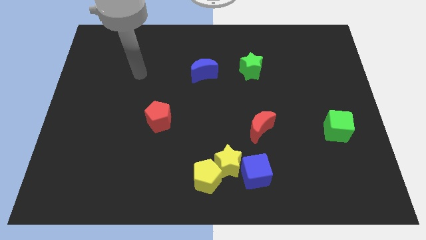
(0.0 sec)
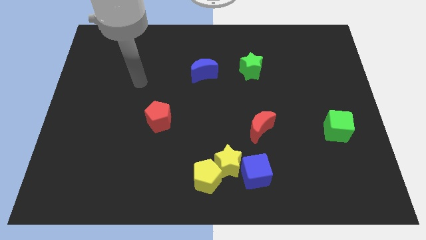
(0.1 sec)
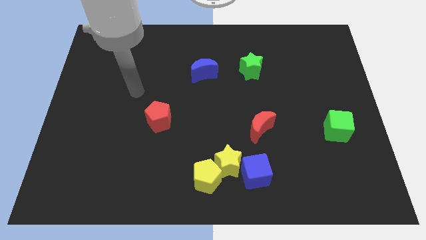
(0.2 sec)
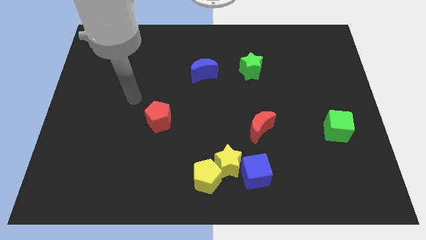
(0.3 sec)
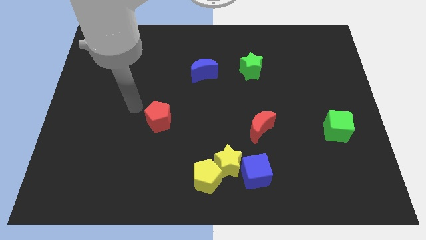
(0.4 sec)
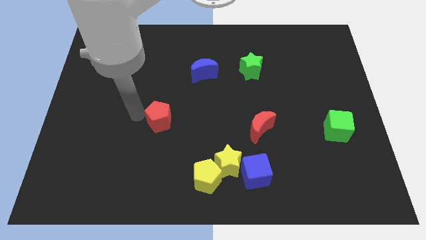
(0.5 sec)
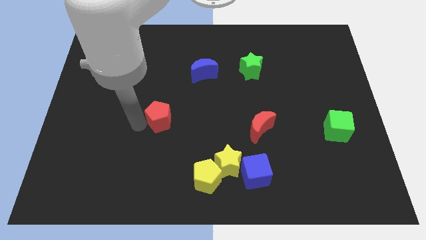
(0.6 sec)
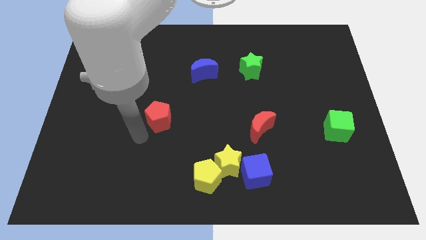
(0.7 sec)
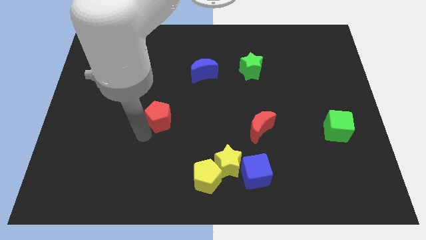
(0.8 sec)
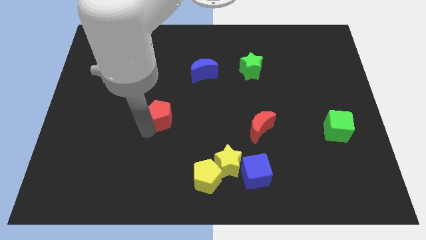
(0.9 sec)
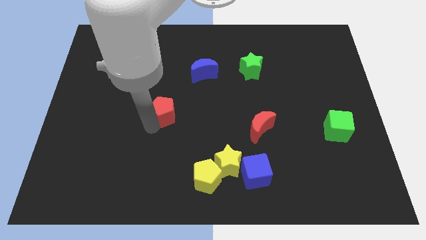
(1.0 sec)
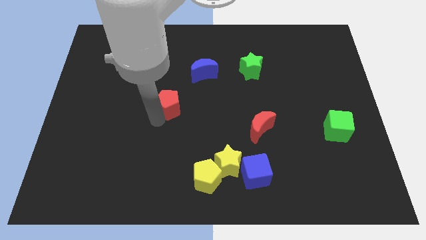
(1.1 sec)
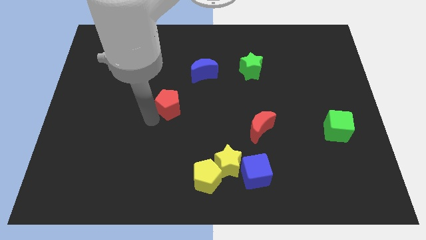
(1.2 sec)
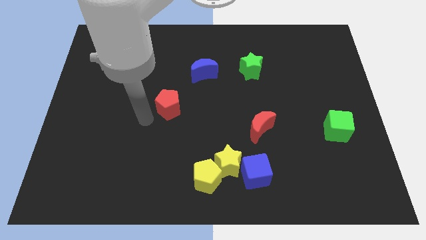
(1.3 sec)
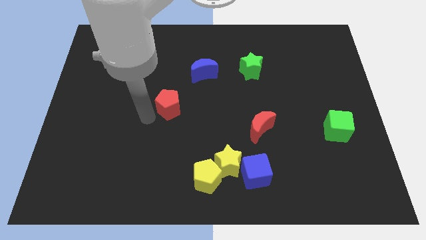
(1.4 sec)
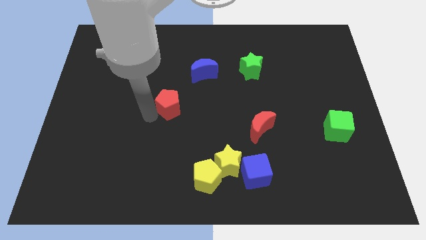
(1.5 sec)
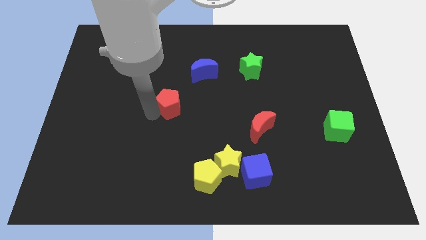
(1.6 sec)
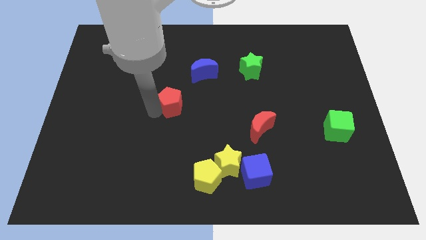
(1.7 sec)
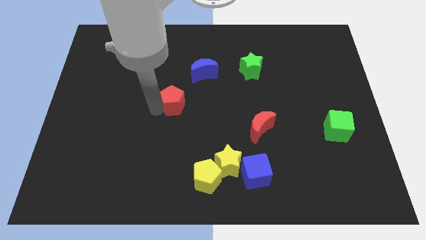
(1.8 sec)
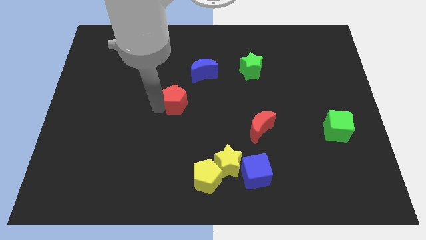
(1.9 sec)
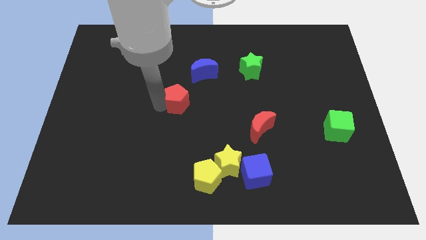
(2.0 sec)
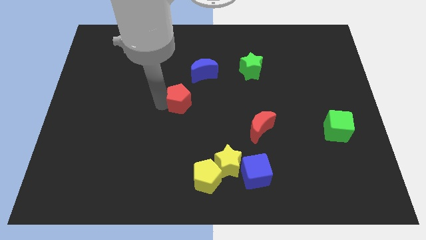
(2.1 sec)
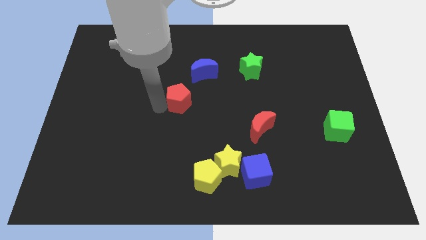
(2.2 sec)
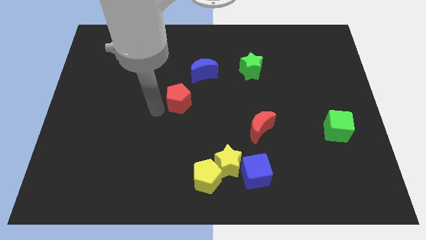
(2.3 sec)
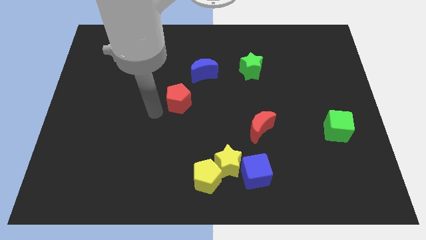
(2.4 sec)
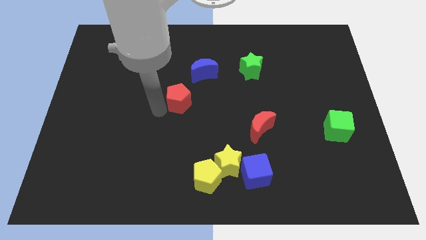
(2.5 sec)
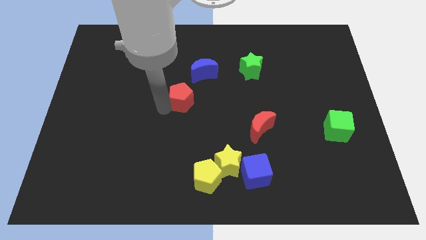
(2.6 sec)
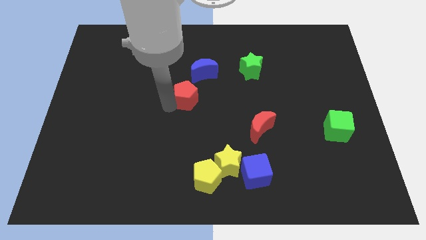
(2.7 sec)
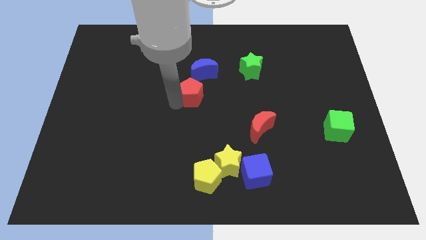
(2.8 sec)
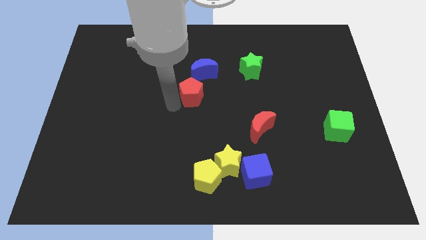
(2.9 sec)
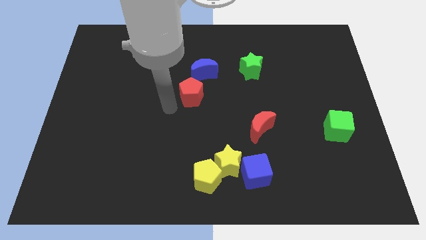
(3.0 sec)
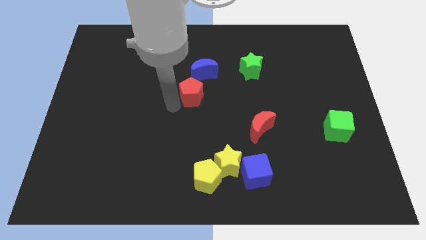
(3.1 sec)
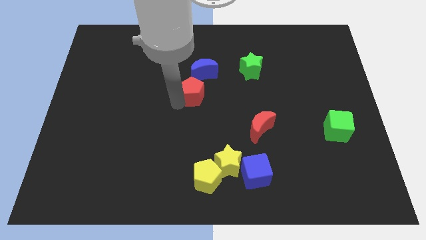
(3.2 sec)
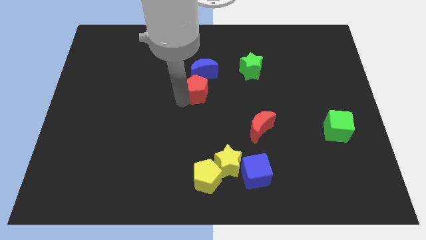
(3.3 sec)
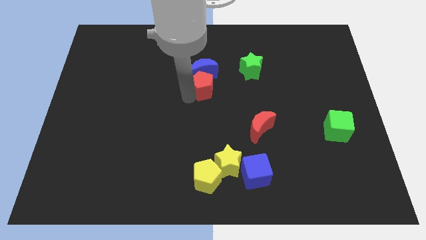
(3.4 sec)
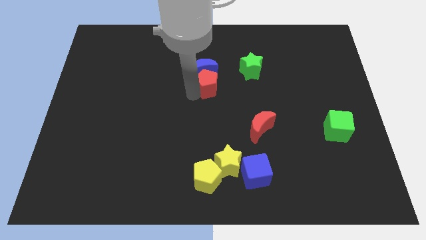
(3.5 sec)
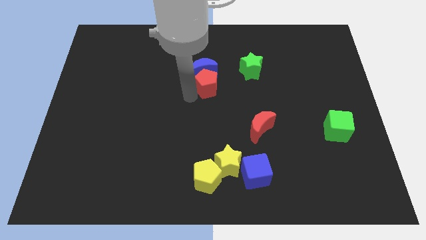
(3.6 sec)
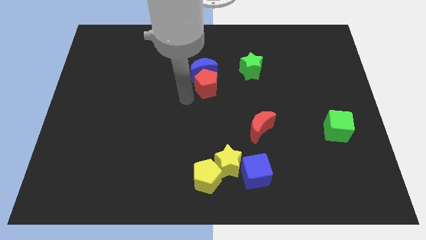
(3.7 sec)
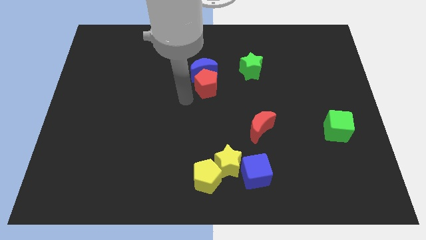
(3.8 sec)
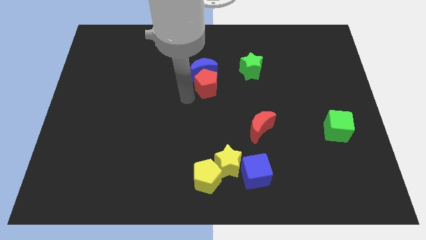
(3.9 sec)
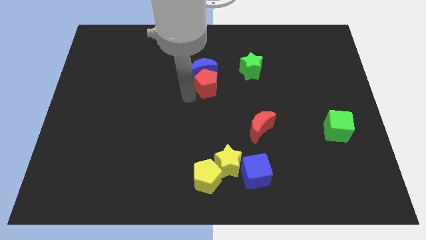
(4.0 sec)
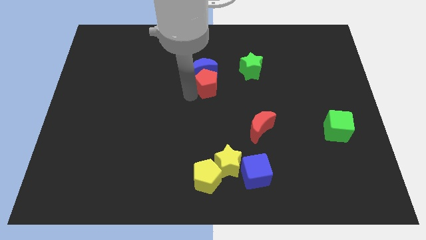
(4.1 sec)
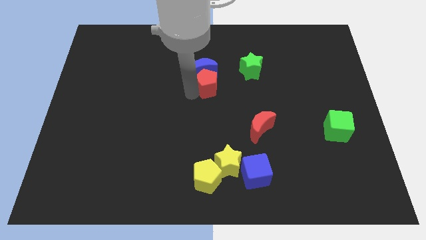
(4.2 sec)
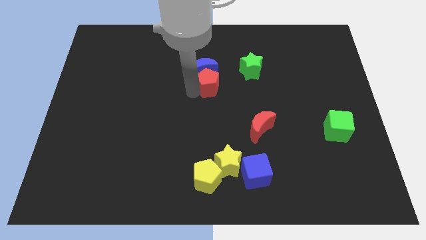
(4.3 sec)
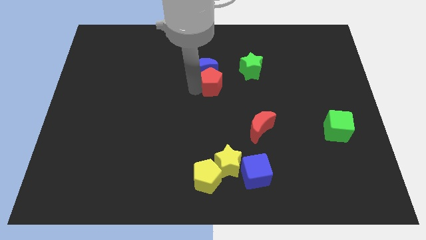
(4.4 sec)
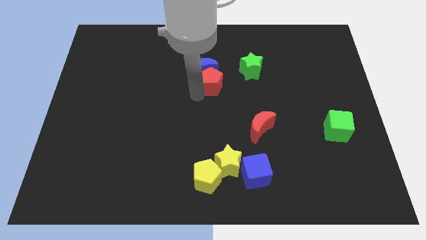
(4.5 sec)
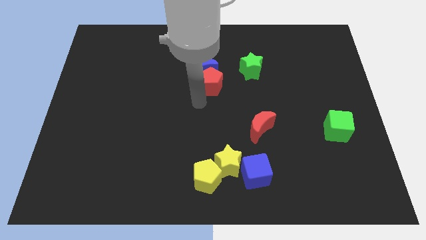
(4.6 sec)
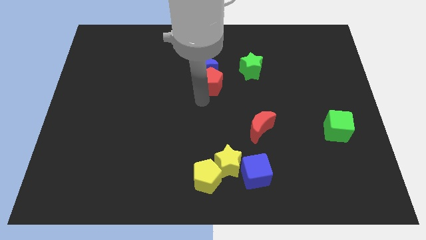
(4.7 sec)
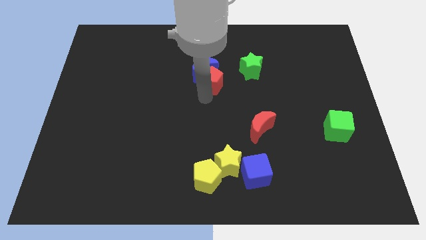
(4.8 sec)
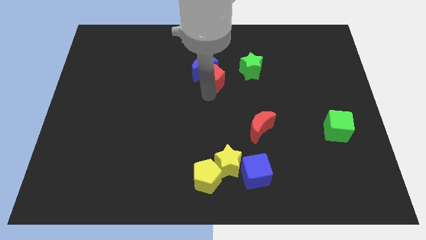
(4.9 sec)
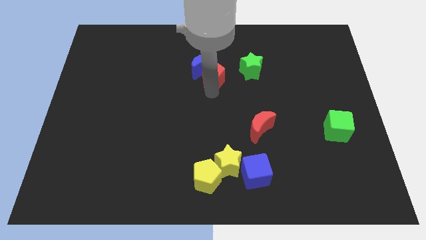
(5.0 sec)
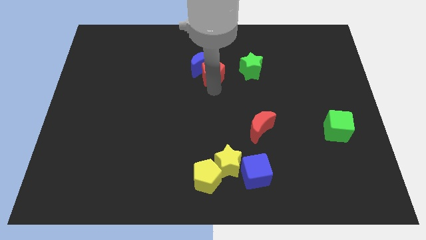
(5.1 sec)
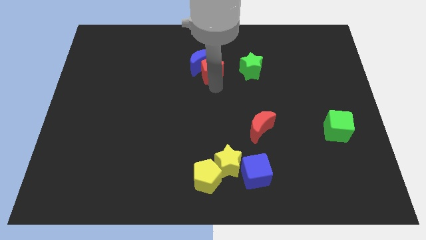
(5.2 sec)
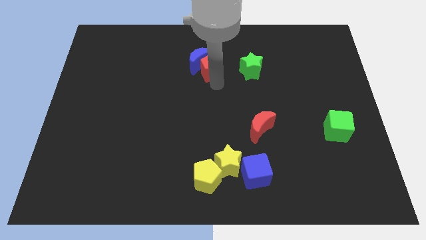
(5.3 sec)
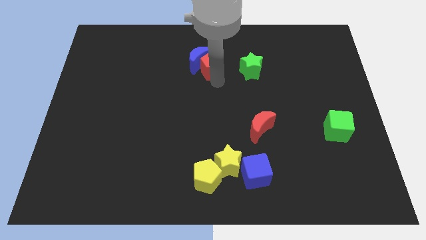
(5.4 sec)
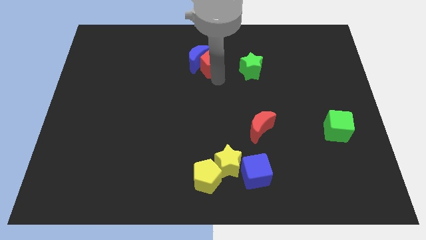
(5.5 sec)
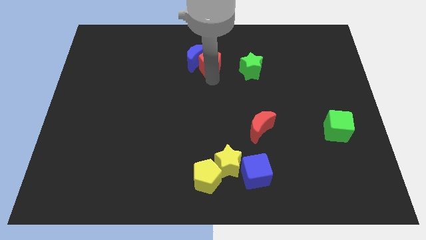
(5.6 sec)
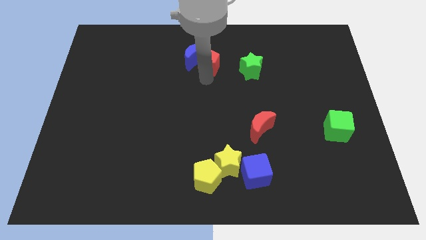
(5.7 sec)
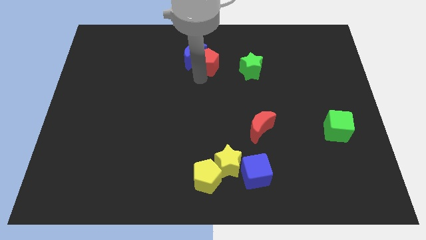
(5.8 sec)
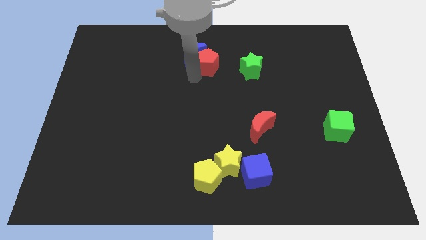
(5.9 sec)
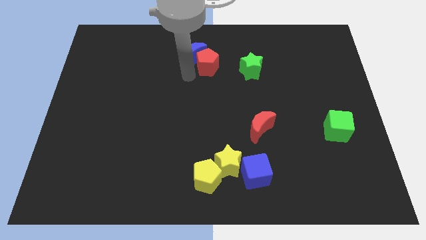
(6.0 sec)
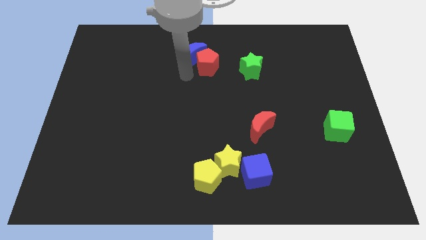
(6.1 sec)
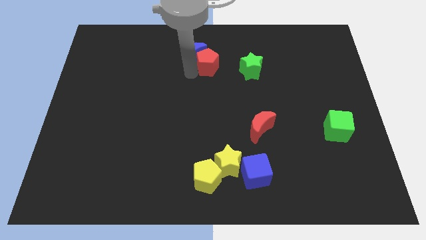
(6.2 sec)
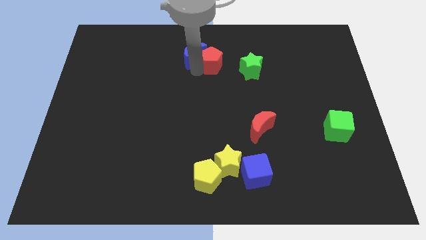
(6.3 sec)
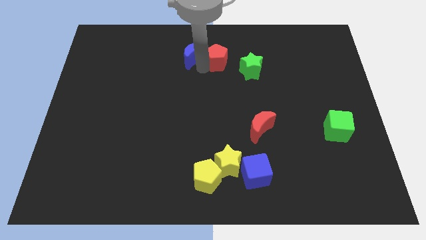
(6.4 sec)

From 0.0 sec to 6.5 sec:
push the red pentagon diagonally up and to the left of the green star
